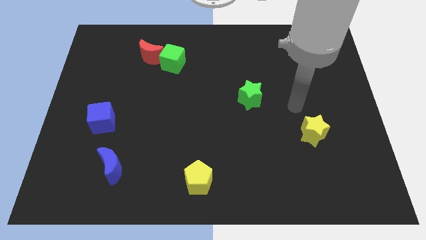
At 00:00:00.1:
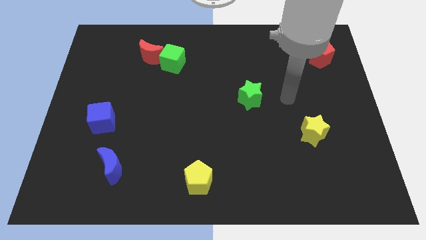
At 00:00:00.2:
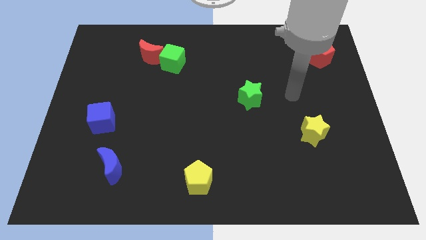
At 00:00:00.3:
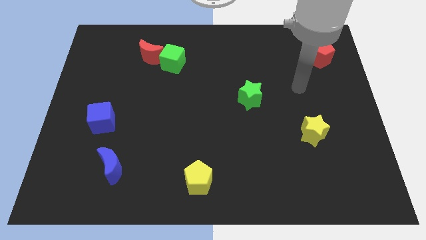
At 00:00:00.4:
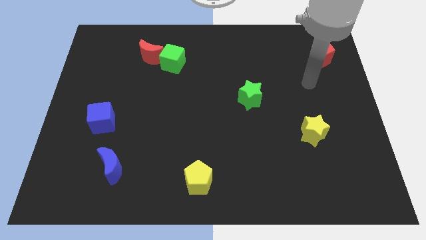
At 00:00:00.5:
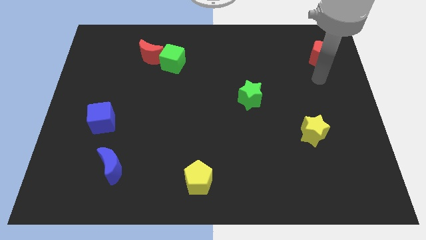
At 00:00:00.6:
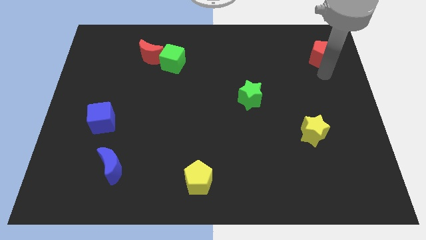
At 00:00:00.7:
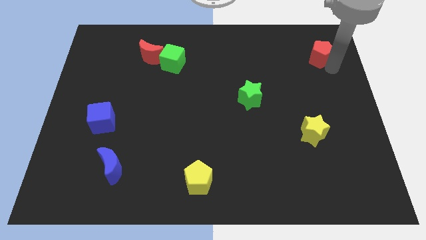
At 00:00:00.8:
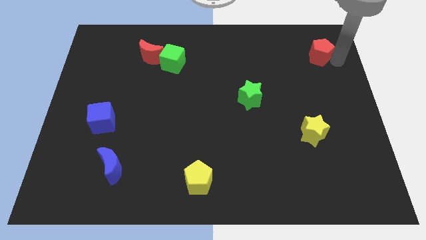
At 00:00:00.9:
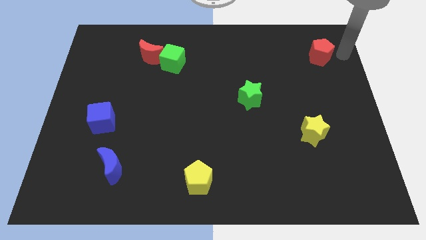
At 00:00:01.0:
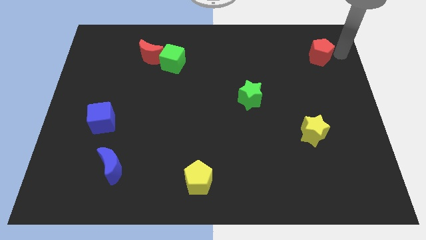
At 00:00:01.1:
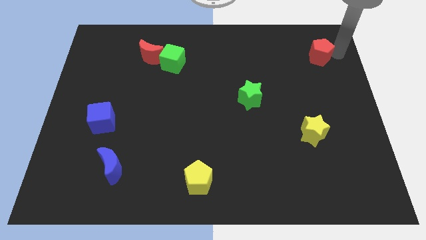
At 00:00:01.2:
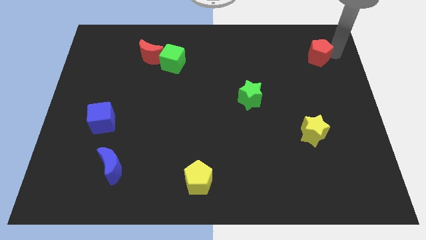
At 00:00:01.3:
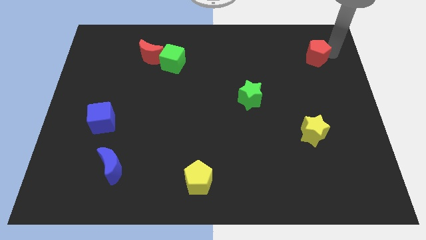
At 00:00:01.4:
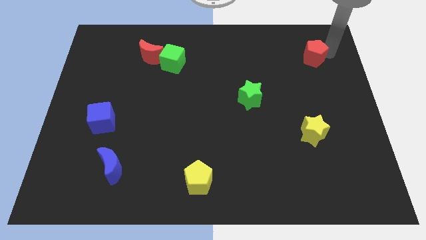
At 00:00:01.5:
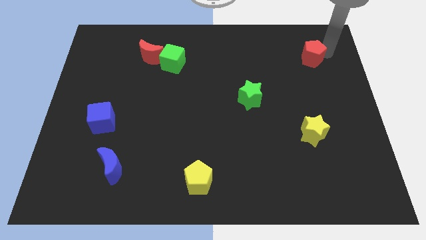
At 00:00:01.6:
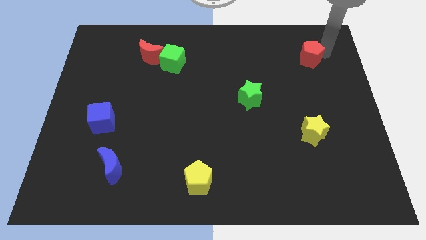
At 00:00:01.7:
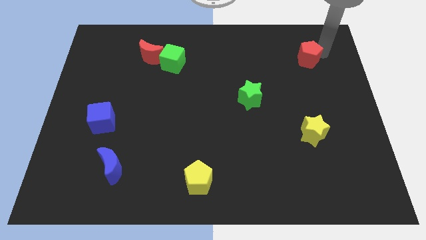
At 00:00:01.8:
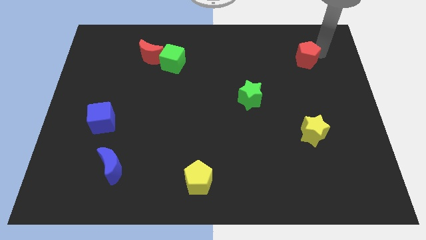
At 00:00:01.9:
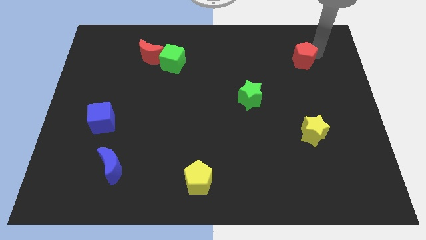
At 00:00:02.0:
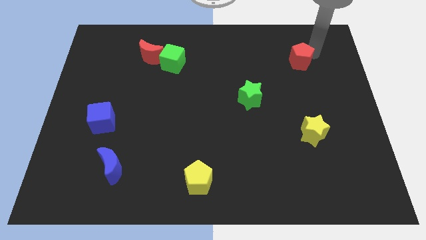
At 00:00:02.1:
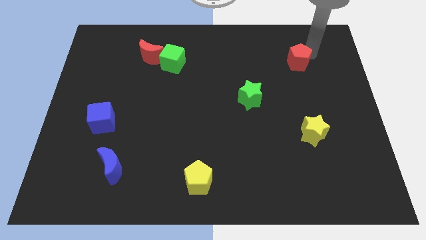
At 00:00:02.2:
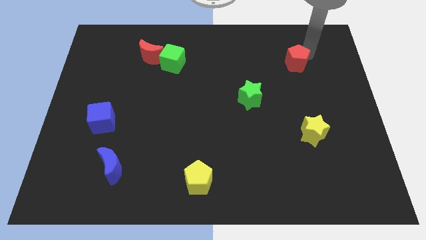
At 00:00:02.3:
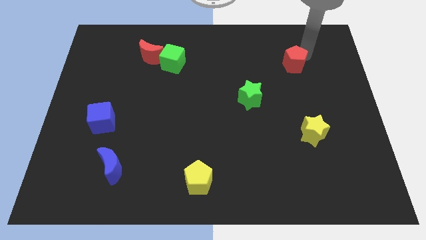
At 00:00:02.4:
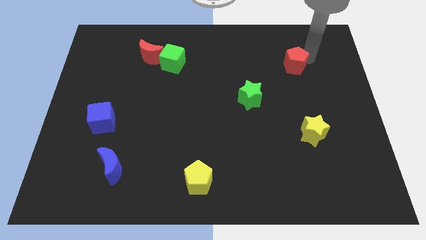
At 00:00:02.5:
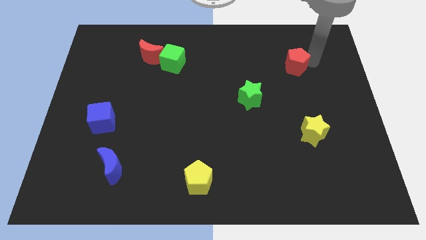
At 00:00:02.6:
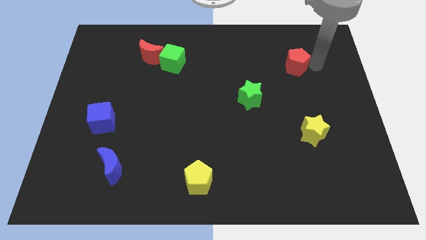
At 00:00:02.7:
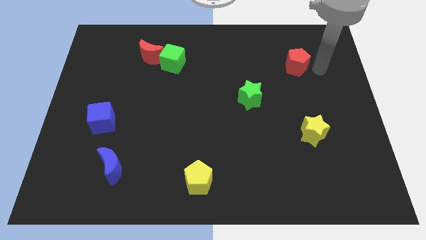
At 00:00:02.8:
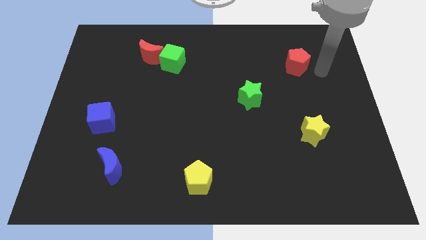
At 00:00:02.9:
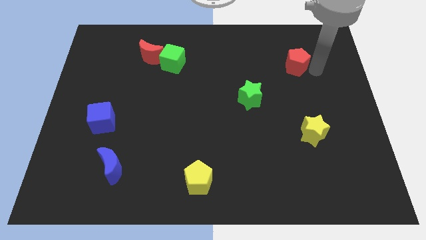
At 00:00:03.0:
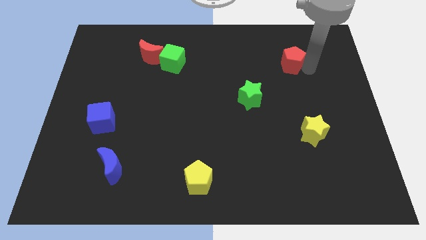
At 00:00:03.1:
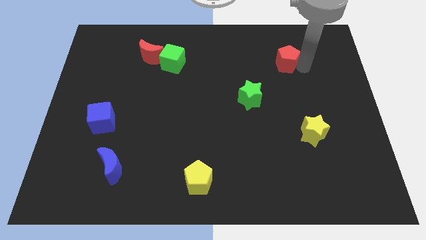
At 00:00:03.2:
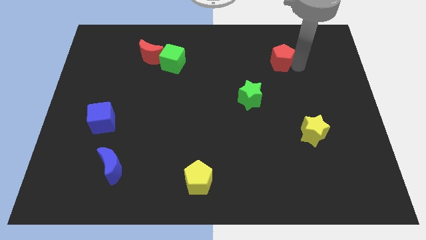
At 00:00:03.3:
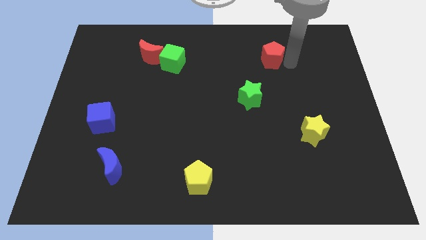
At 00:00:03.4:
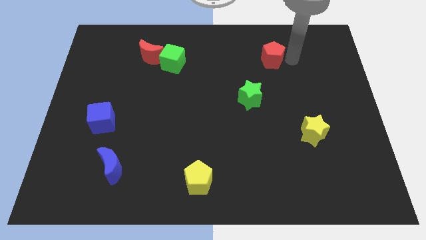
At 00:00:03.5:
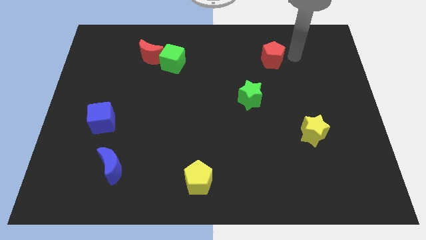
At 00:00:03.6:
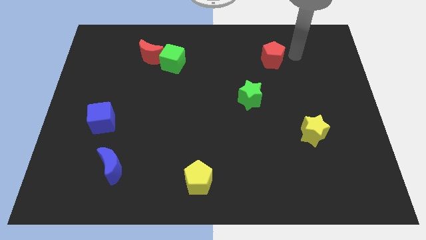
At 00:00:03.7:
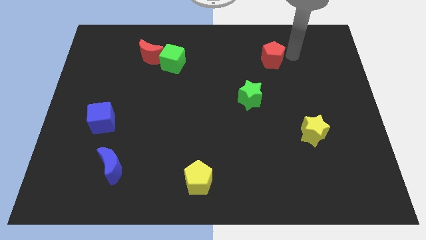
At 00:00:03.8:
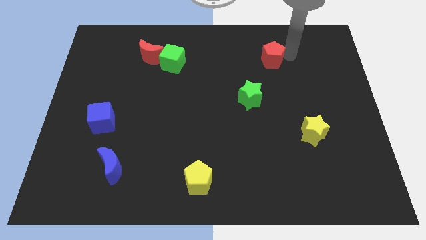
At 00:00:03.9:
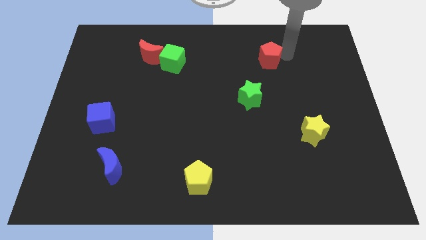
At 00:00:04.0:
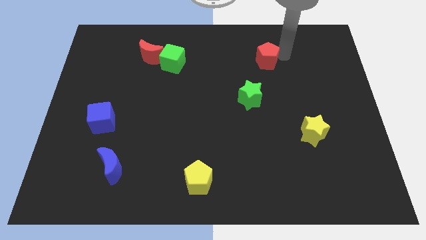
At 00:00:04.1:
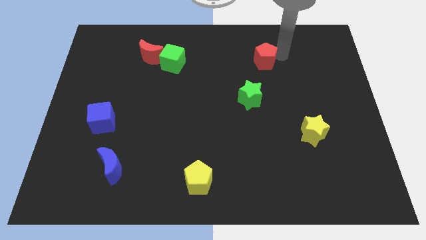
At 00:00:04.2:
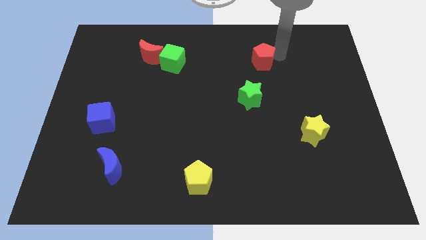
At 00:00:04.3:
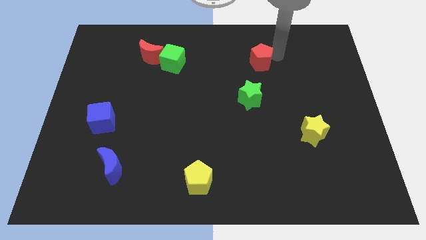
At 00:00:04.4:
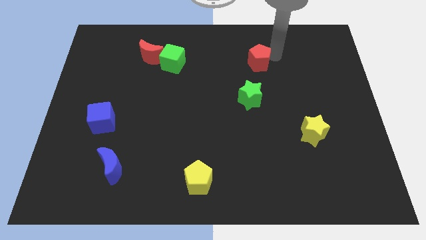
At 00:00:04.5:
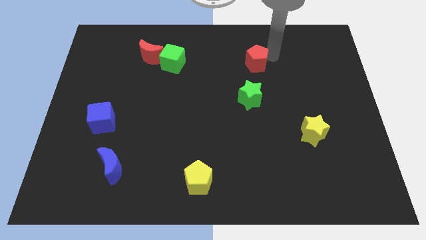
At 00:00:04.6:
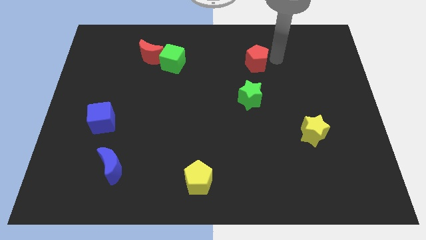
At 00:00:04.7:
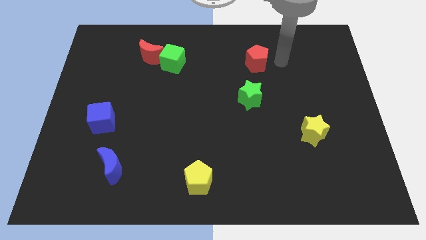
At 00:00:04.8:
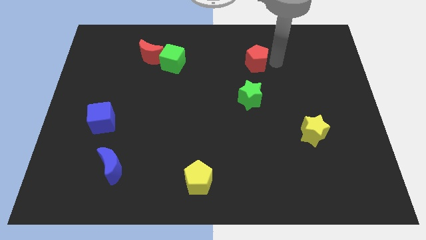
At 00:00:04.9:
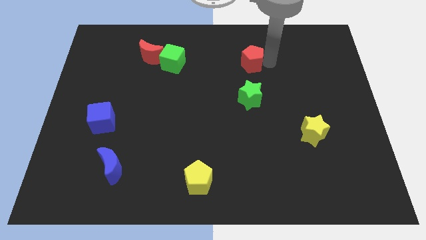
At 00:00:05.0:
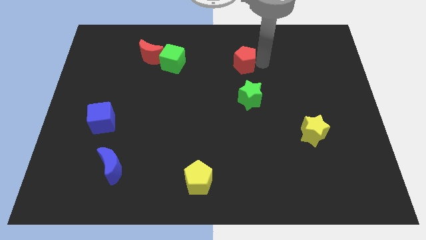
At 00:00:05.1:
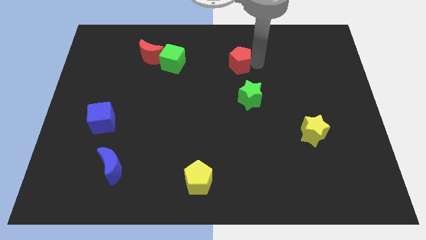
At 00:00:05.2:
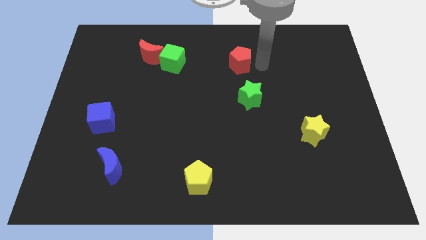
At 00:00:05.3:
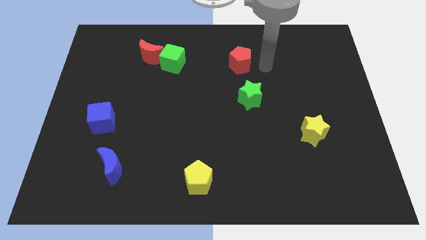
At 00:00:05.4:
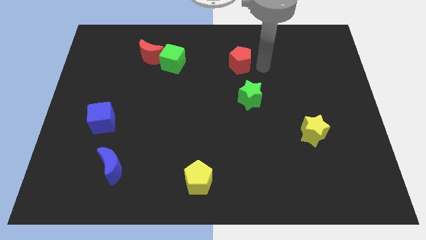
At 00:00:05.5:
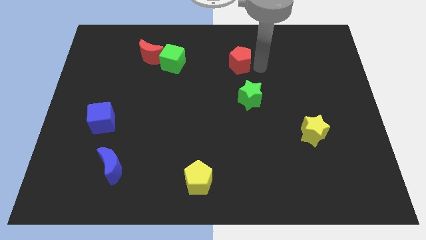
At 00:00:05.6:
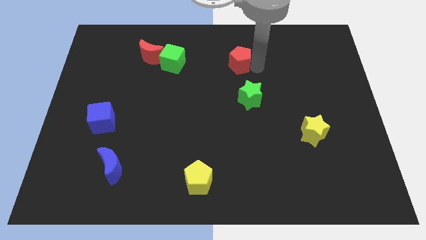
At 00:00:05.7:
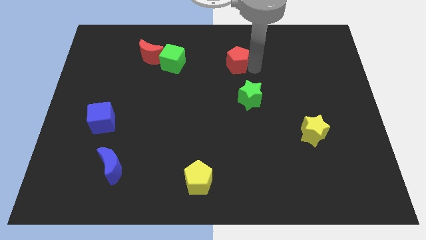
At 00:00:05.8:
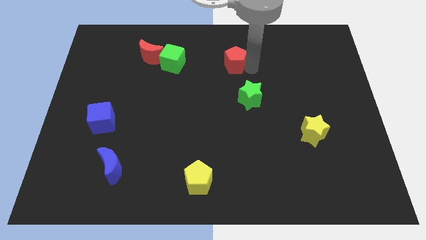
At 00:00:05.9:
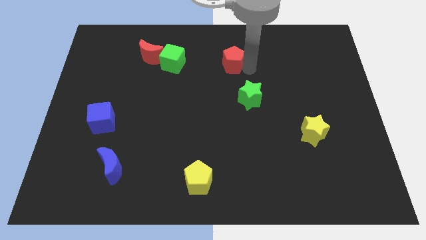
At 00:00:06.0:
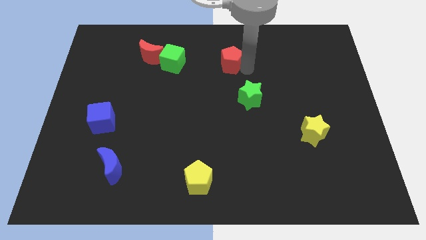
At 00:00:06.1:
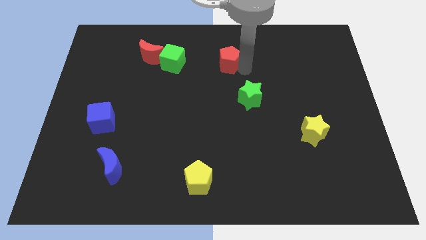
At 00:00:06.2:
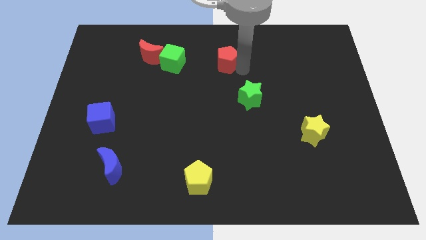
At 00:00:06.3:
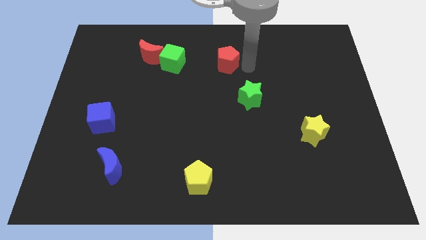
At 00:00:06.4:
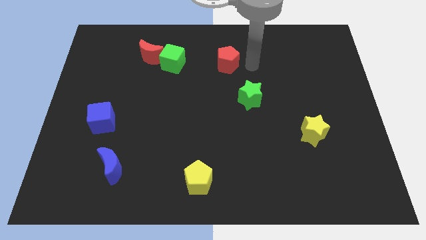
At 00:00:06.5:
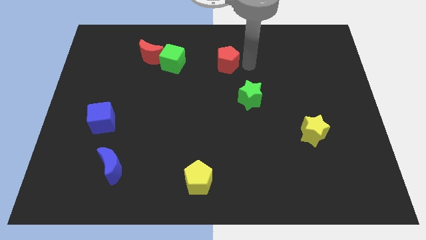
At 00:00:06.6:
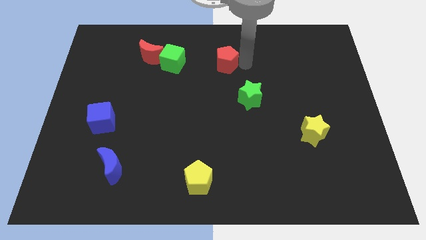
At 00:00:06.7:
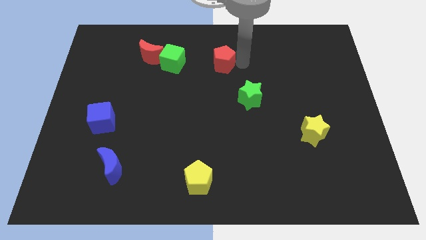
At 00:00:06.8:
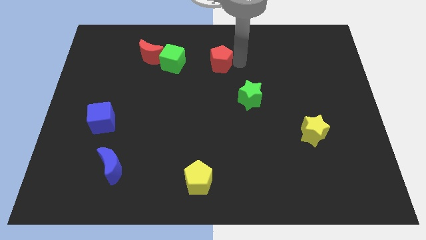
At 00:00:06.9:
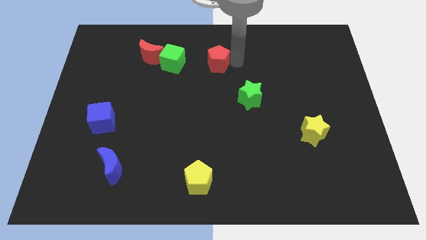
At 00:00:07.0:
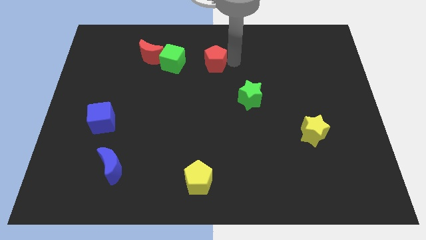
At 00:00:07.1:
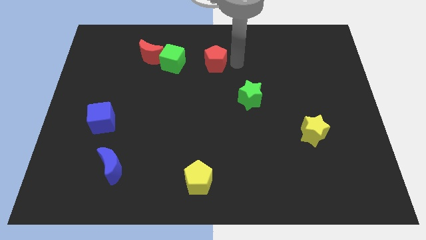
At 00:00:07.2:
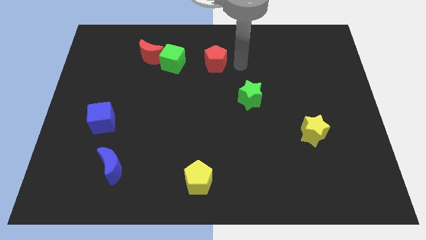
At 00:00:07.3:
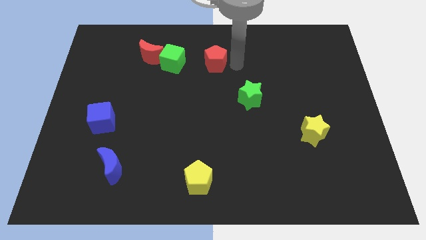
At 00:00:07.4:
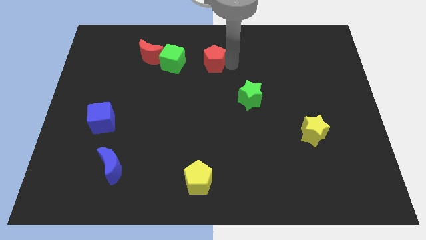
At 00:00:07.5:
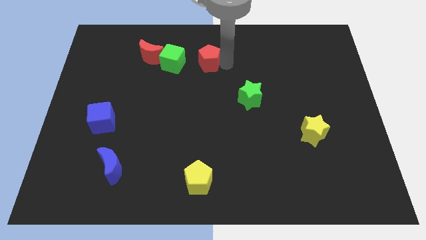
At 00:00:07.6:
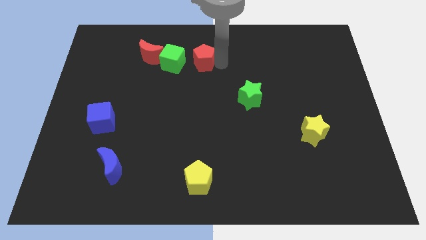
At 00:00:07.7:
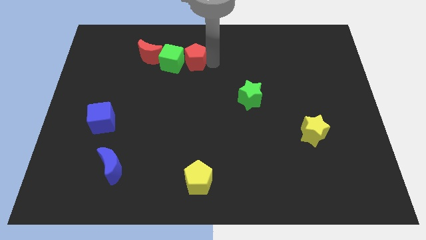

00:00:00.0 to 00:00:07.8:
push the red pentagon close to the green cube
